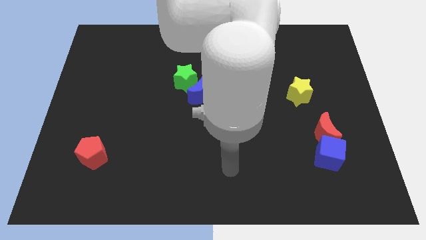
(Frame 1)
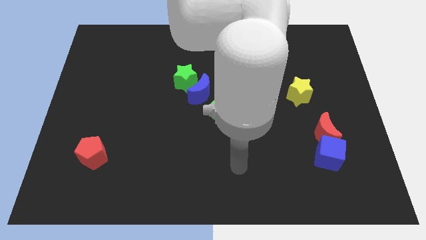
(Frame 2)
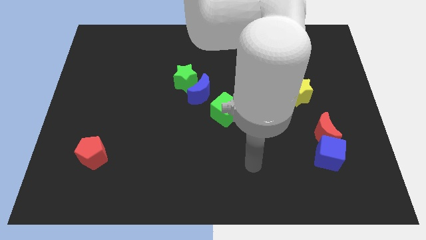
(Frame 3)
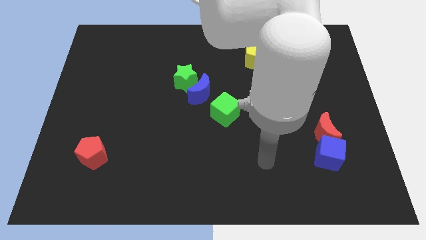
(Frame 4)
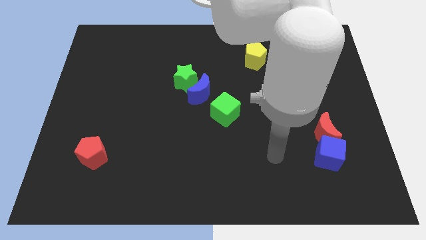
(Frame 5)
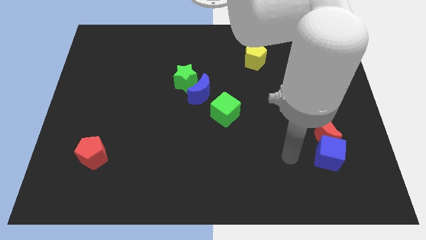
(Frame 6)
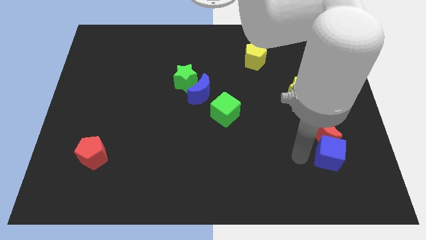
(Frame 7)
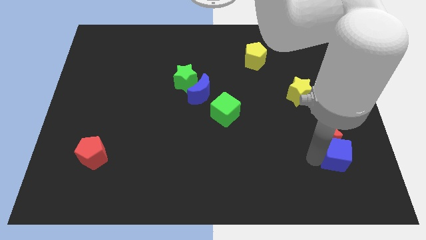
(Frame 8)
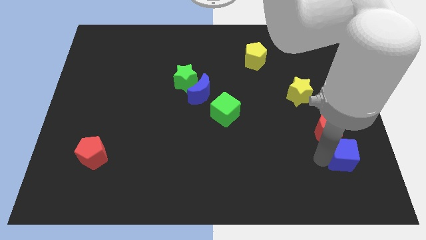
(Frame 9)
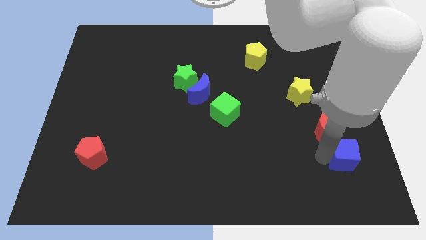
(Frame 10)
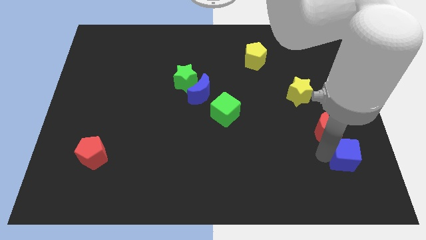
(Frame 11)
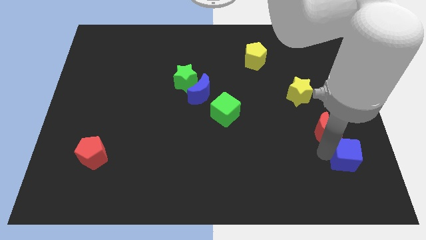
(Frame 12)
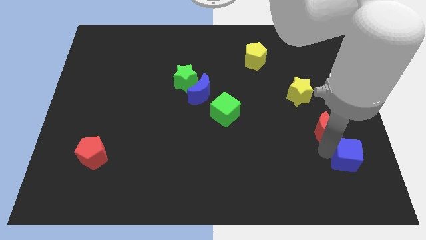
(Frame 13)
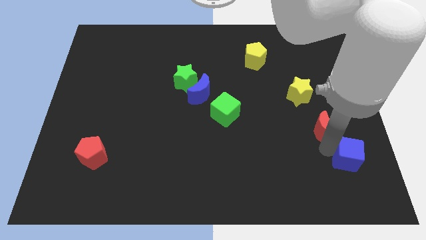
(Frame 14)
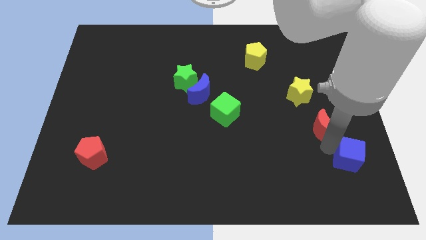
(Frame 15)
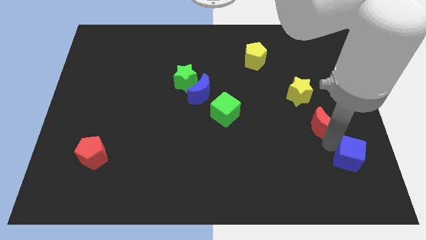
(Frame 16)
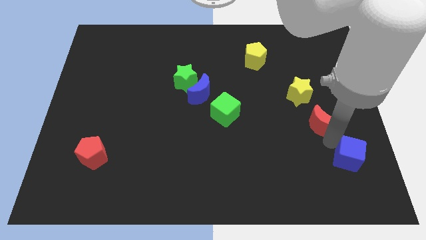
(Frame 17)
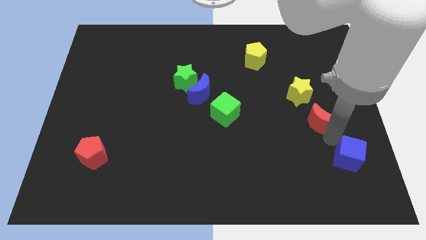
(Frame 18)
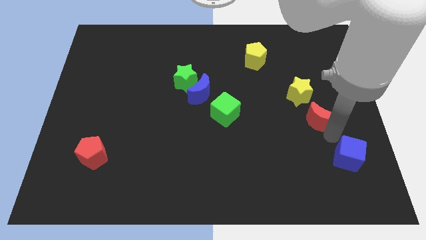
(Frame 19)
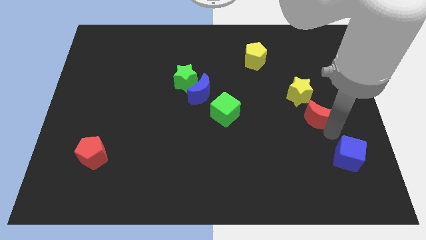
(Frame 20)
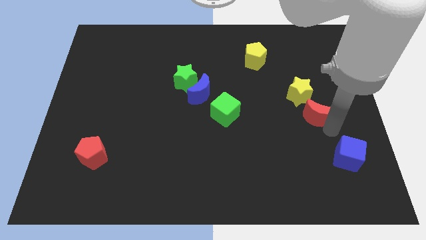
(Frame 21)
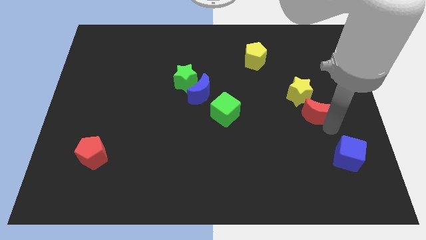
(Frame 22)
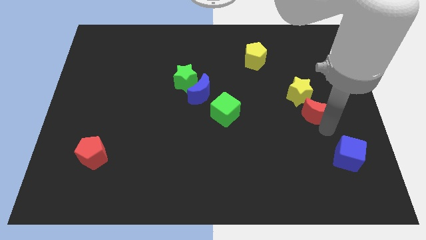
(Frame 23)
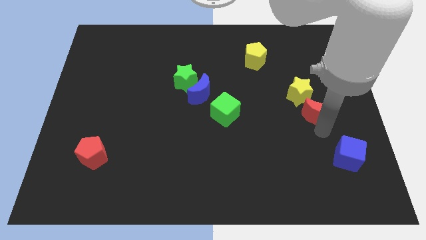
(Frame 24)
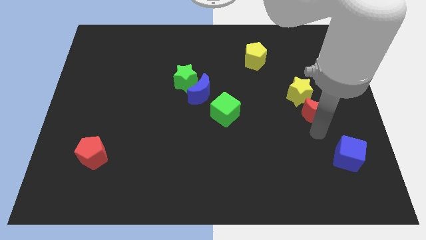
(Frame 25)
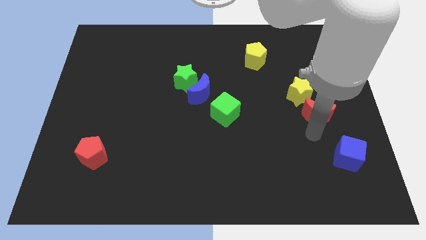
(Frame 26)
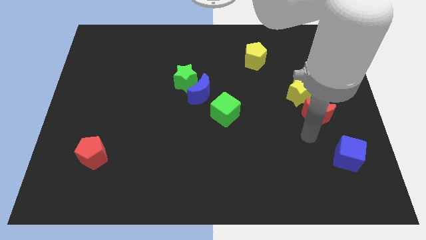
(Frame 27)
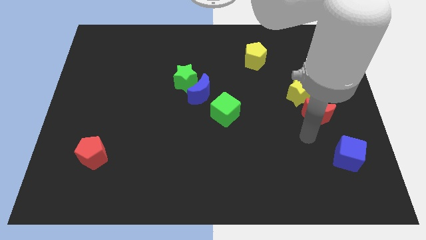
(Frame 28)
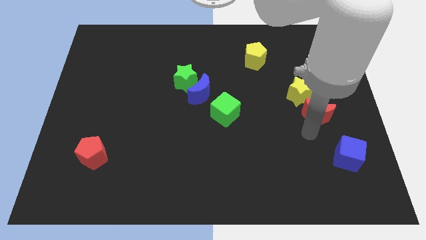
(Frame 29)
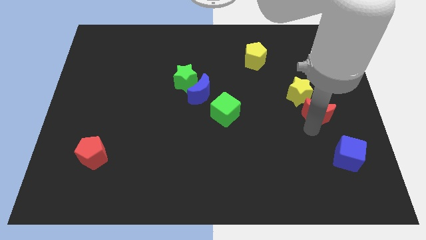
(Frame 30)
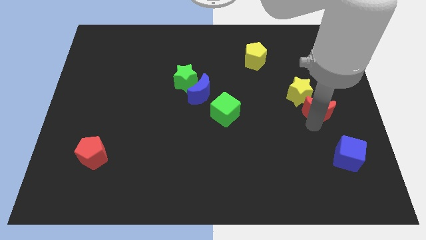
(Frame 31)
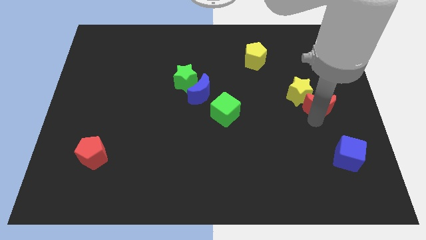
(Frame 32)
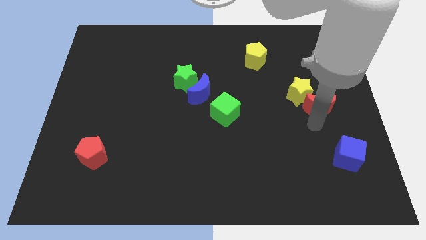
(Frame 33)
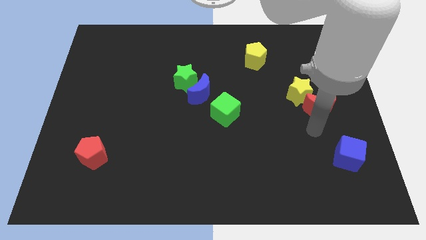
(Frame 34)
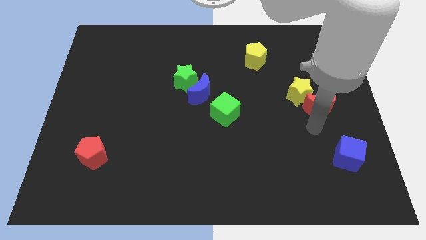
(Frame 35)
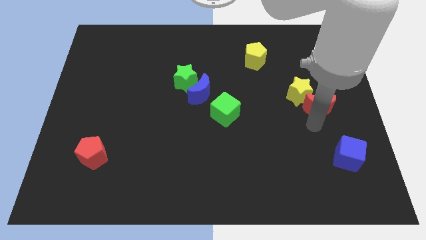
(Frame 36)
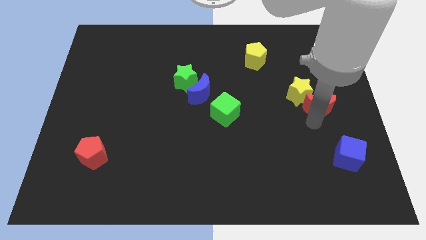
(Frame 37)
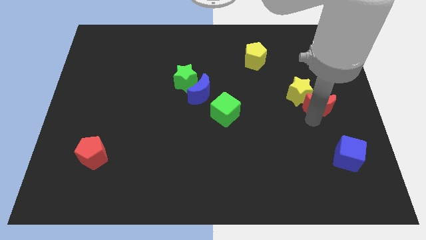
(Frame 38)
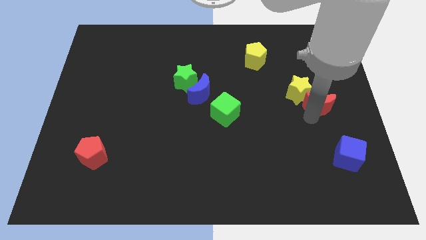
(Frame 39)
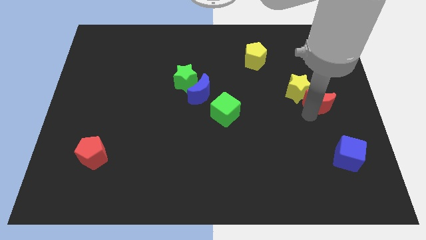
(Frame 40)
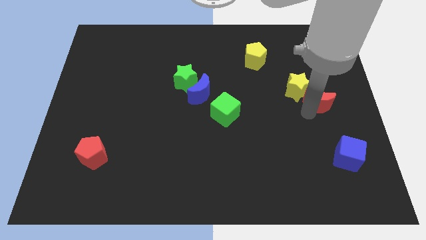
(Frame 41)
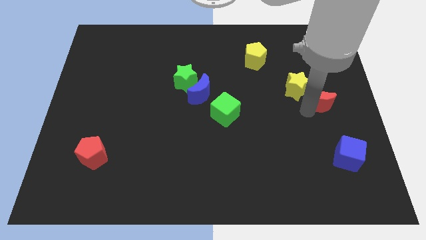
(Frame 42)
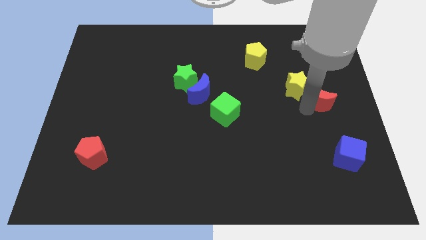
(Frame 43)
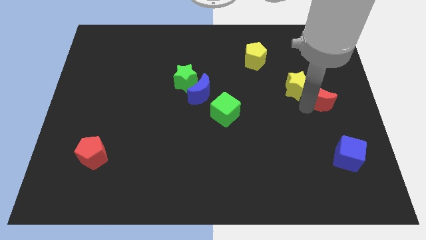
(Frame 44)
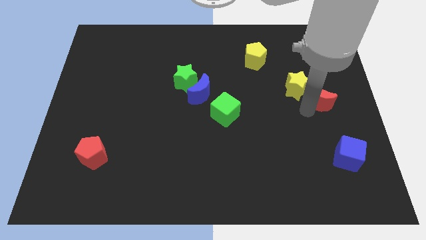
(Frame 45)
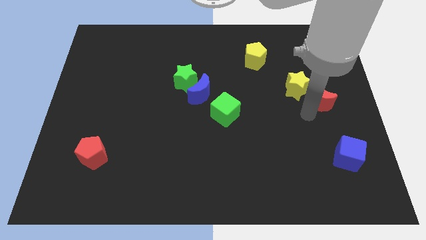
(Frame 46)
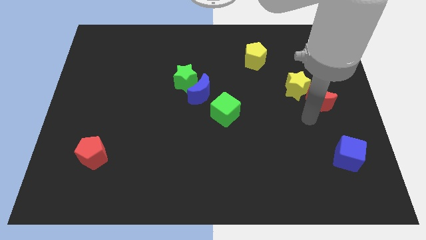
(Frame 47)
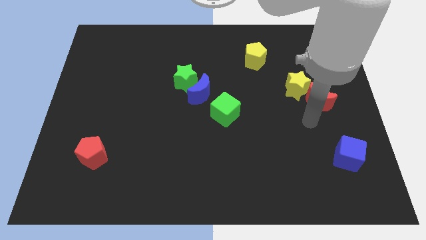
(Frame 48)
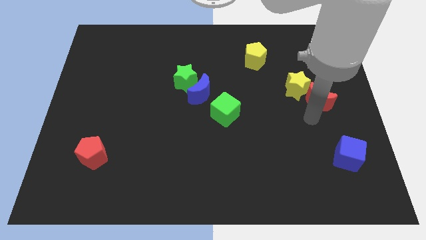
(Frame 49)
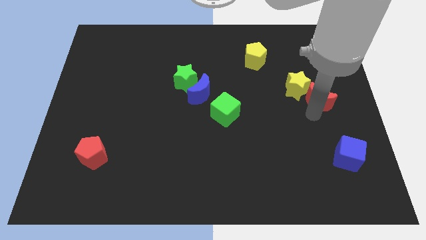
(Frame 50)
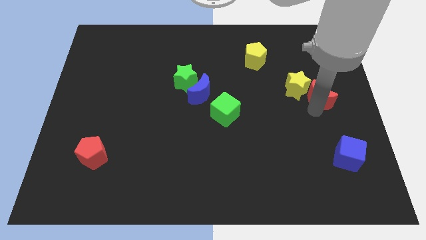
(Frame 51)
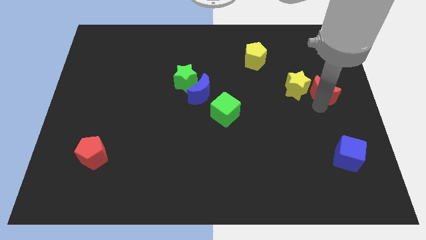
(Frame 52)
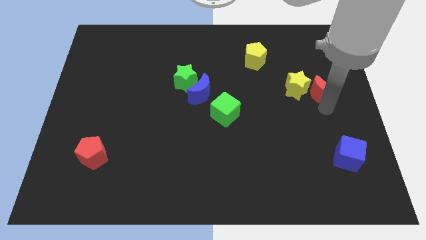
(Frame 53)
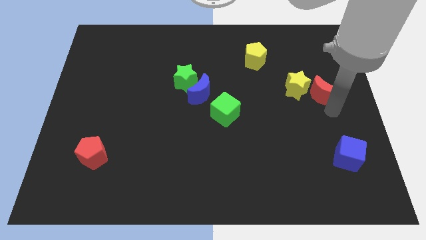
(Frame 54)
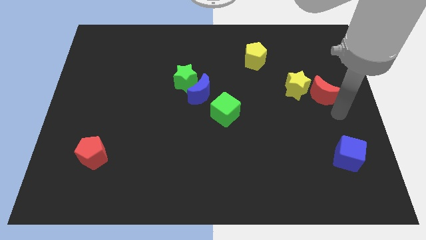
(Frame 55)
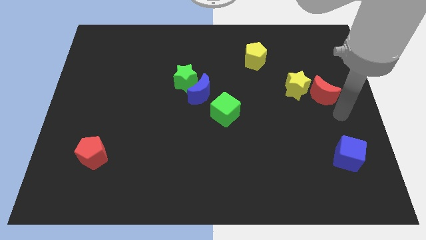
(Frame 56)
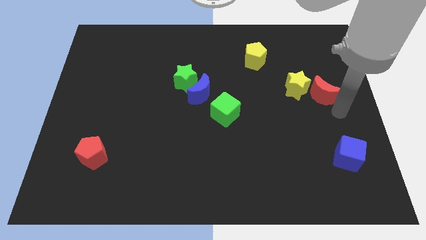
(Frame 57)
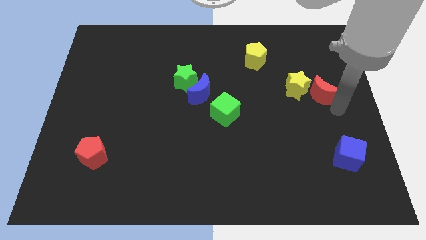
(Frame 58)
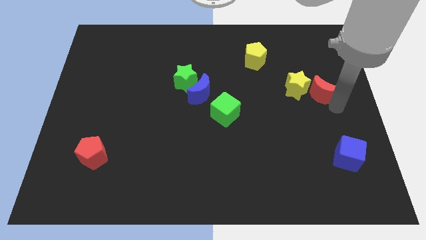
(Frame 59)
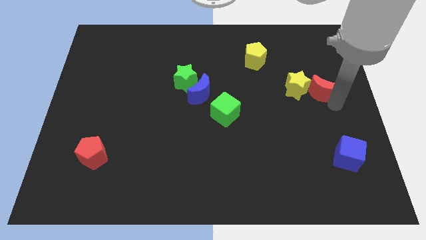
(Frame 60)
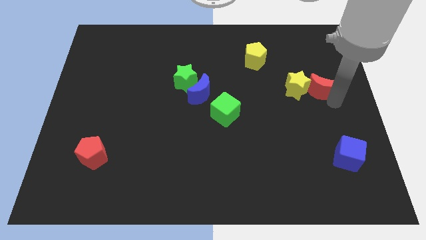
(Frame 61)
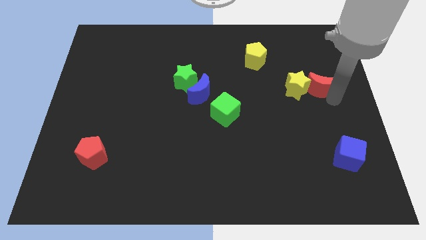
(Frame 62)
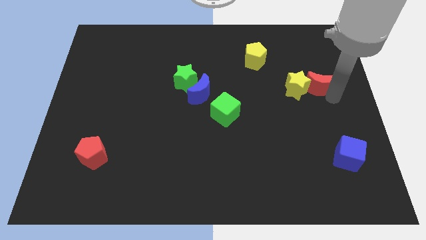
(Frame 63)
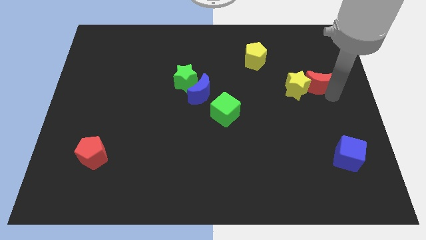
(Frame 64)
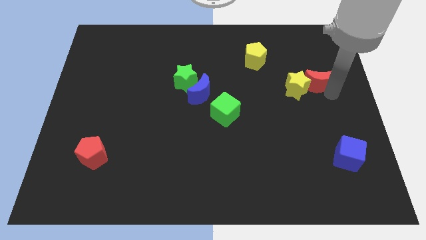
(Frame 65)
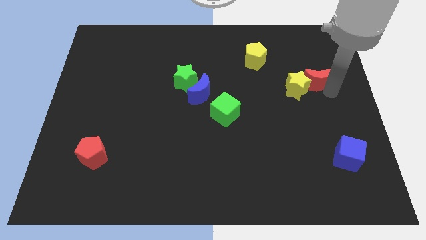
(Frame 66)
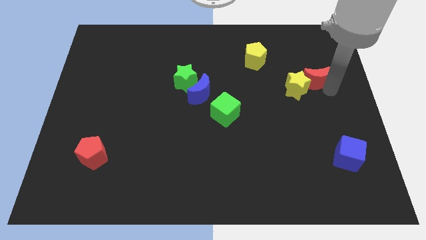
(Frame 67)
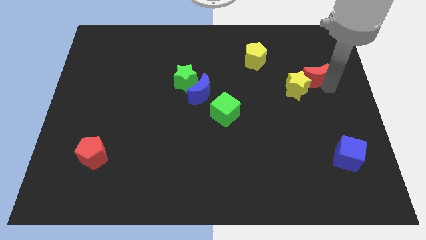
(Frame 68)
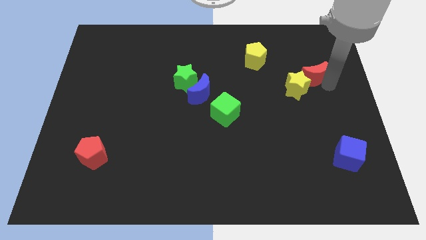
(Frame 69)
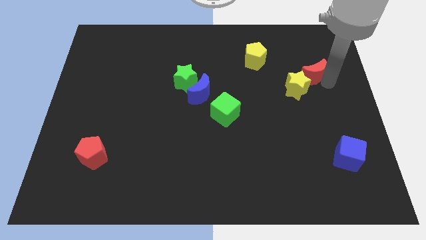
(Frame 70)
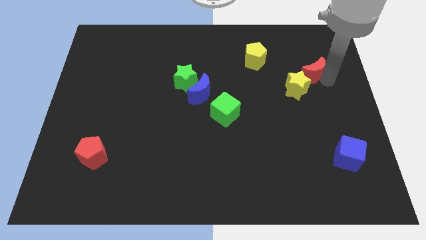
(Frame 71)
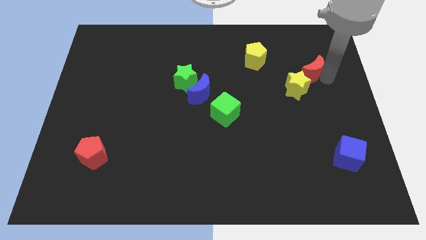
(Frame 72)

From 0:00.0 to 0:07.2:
move the red moon to the top of the yellow star
